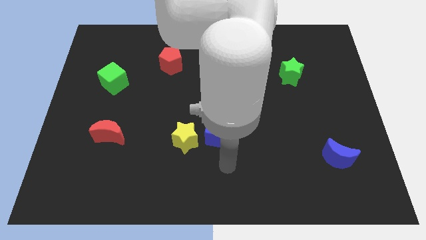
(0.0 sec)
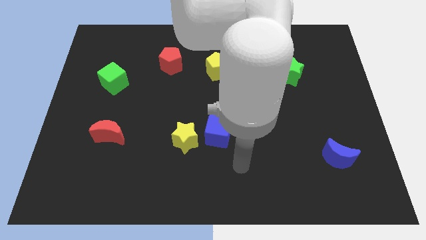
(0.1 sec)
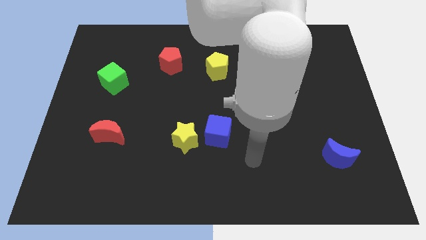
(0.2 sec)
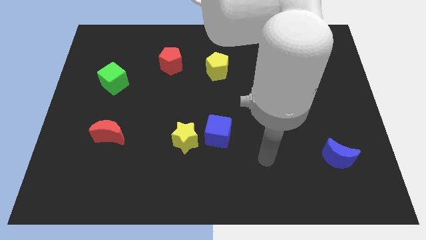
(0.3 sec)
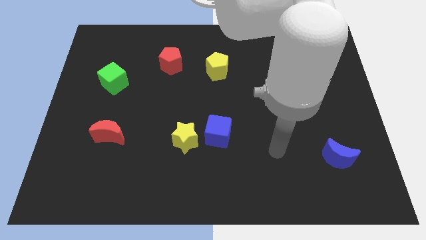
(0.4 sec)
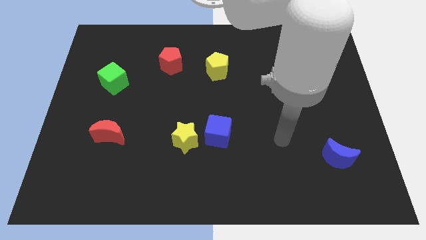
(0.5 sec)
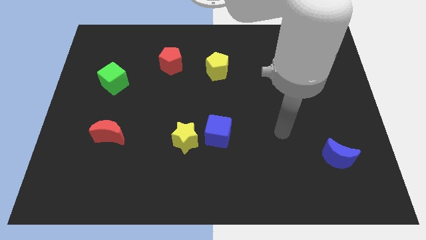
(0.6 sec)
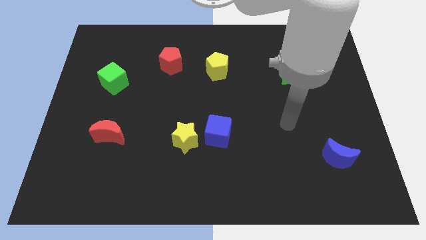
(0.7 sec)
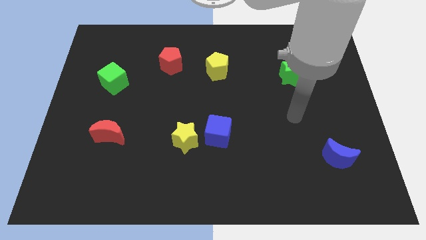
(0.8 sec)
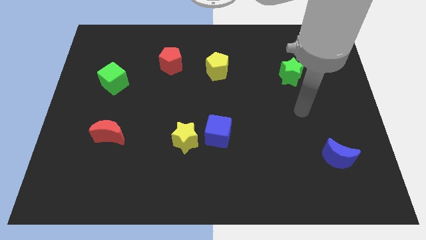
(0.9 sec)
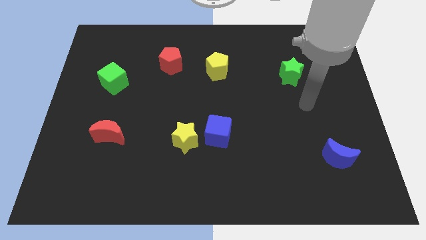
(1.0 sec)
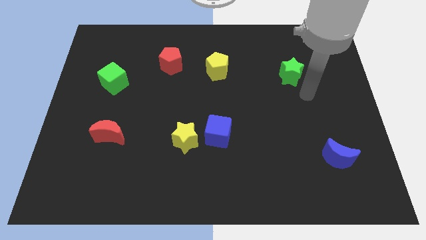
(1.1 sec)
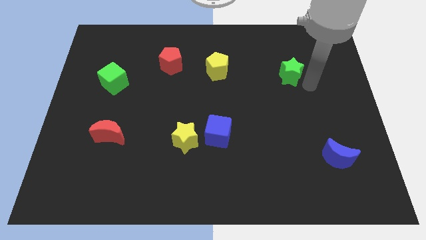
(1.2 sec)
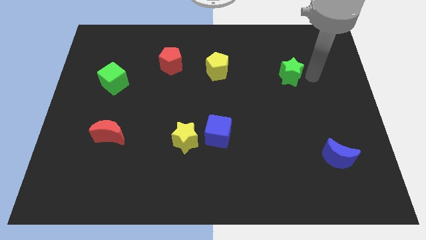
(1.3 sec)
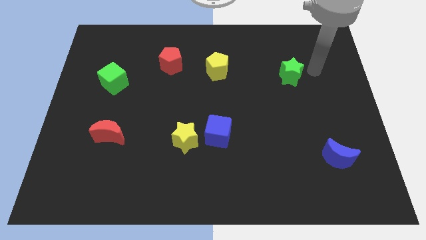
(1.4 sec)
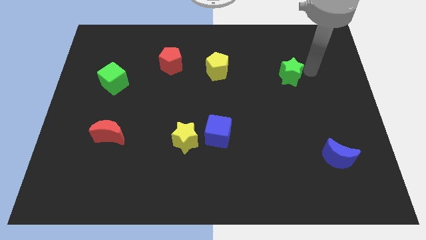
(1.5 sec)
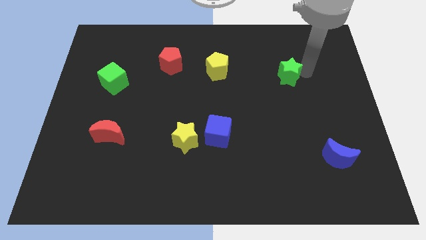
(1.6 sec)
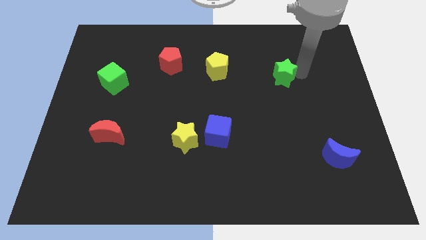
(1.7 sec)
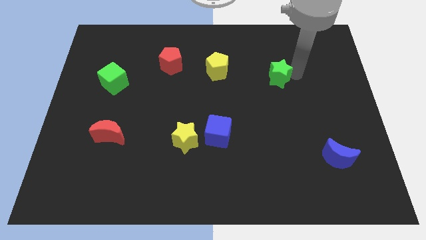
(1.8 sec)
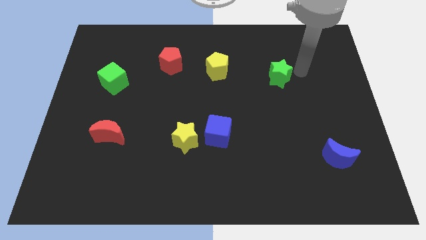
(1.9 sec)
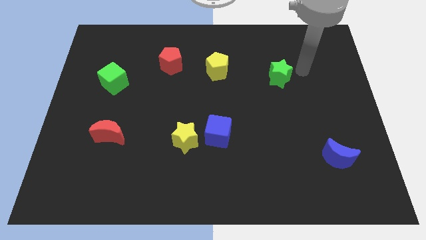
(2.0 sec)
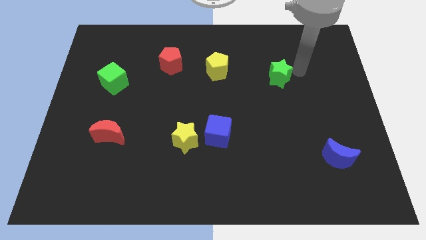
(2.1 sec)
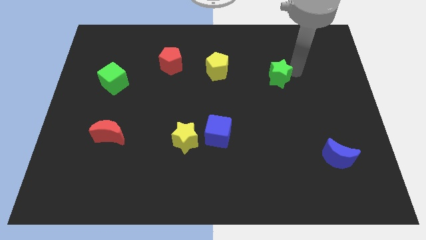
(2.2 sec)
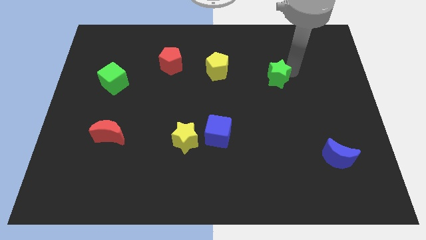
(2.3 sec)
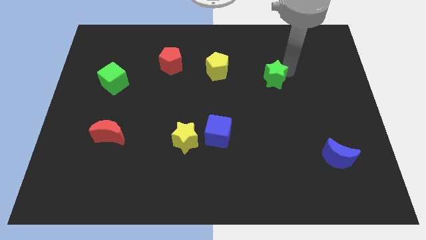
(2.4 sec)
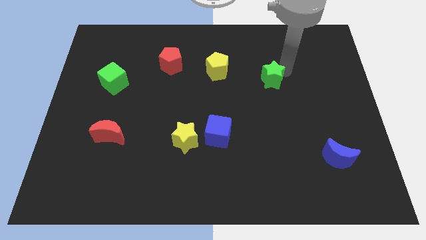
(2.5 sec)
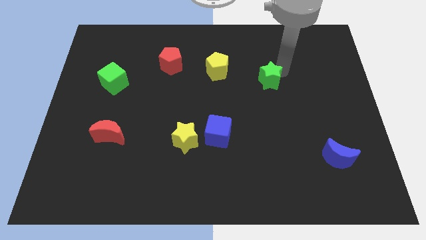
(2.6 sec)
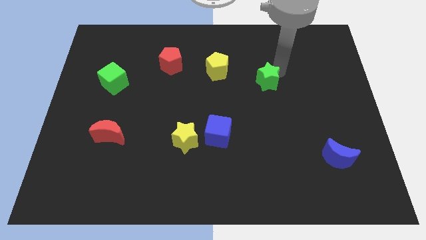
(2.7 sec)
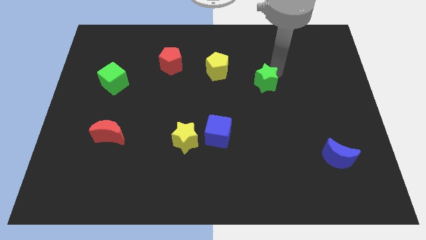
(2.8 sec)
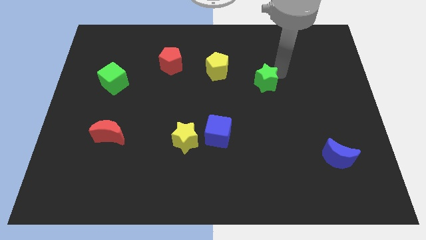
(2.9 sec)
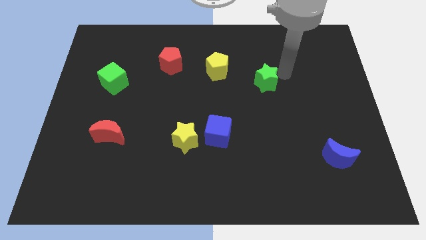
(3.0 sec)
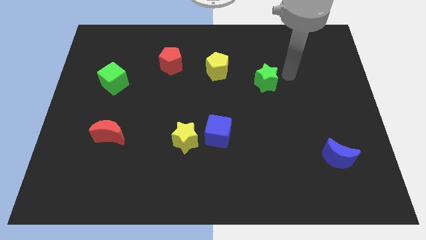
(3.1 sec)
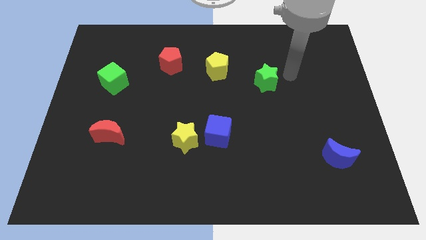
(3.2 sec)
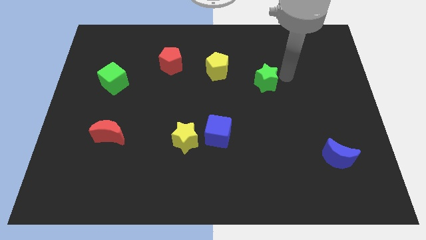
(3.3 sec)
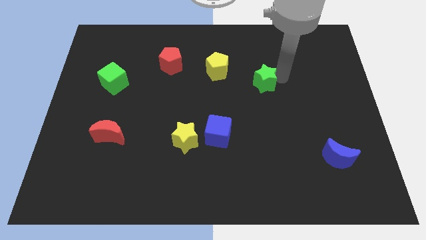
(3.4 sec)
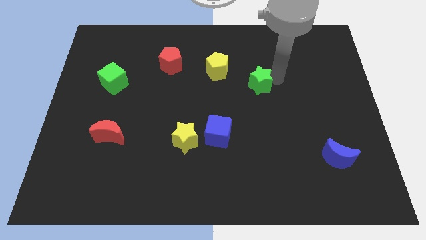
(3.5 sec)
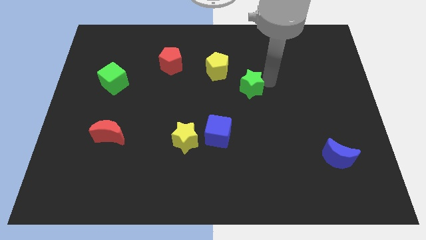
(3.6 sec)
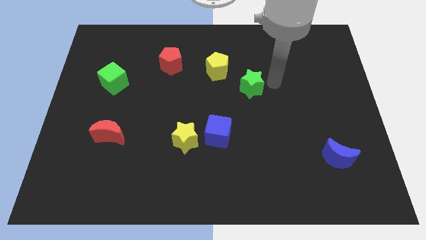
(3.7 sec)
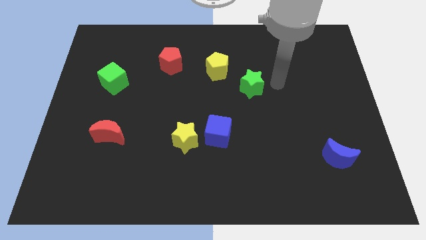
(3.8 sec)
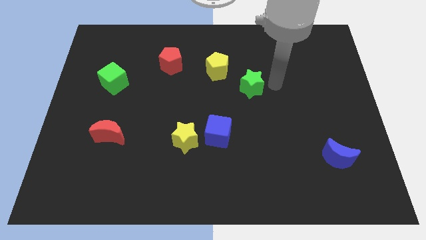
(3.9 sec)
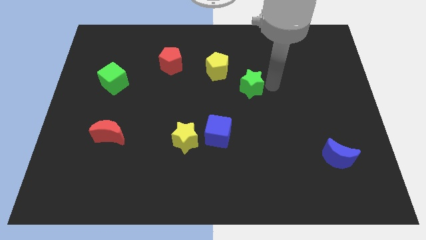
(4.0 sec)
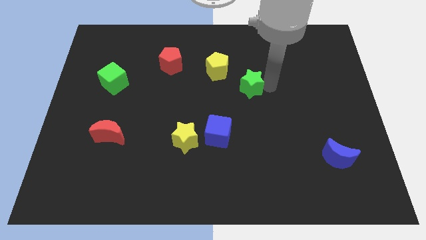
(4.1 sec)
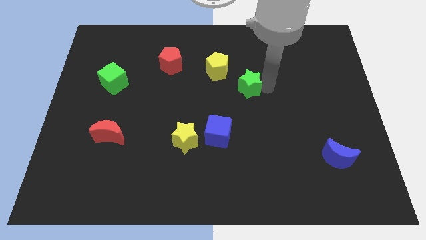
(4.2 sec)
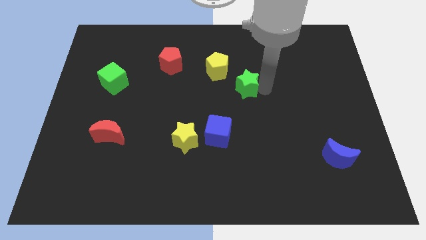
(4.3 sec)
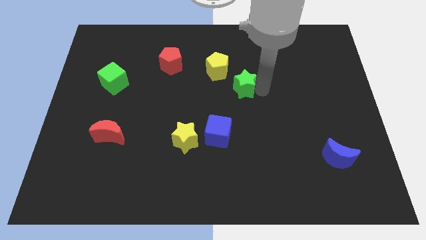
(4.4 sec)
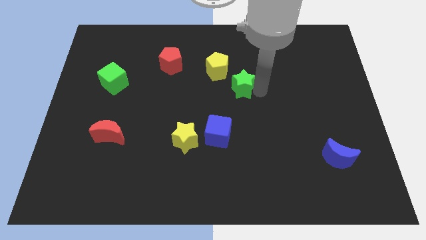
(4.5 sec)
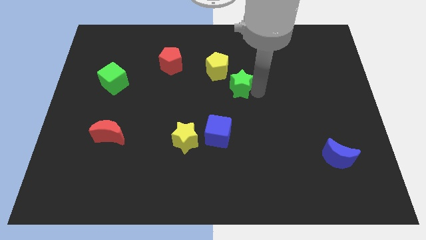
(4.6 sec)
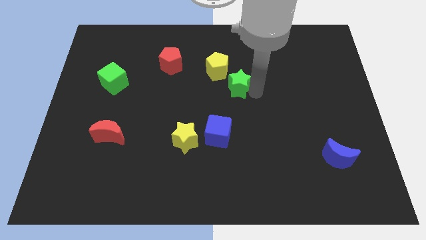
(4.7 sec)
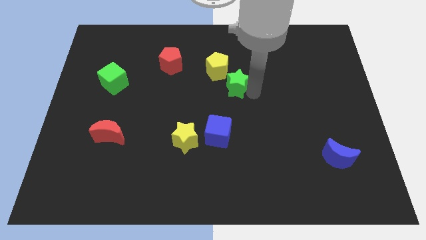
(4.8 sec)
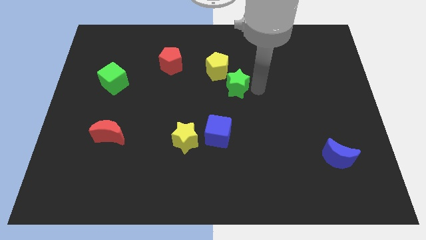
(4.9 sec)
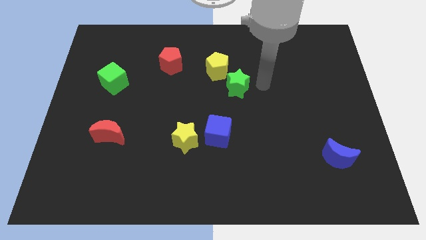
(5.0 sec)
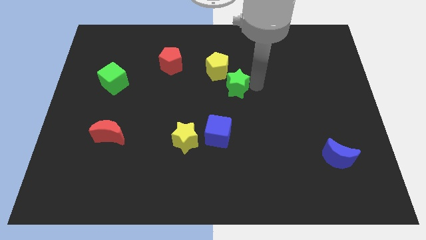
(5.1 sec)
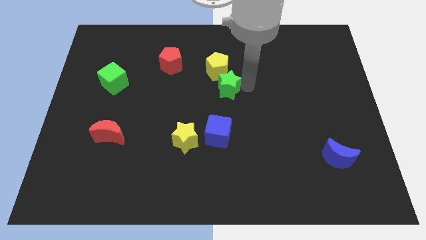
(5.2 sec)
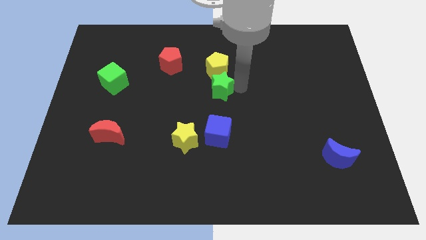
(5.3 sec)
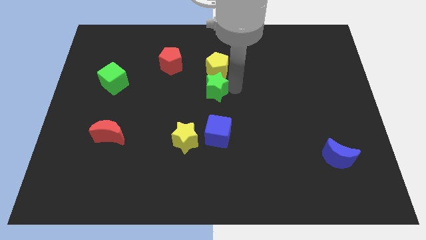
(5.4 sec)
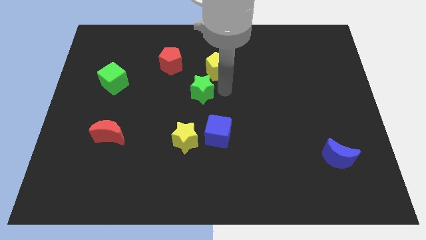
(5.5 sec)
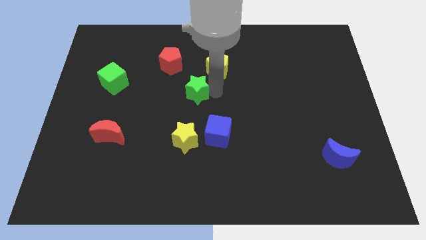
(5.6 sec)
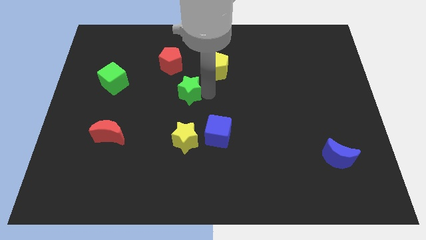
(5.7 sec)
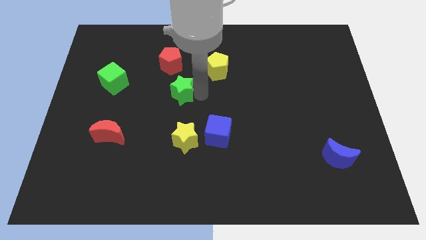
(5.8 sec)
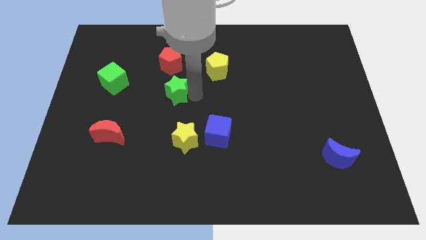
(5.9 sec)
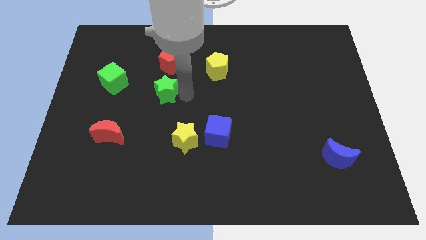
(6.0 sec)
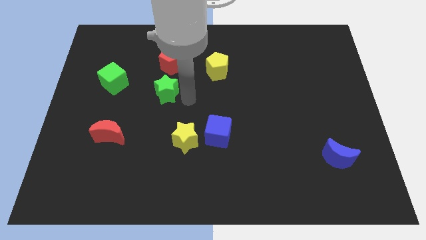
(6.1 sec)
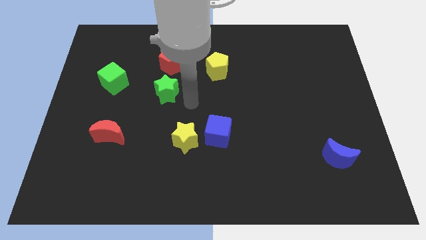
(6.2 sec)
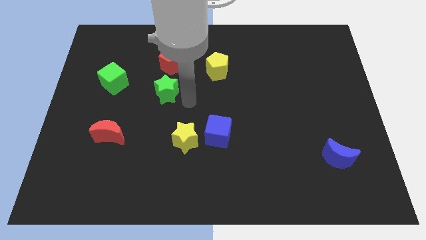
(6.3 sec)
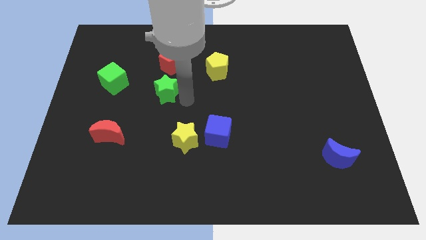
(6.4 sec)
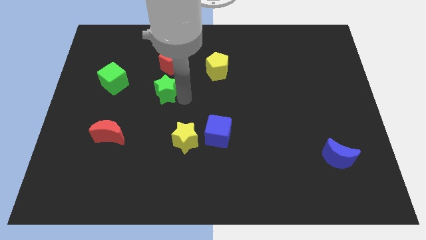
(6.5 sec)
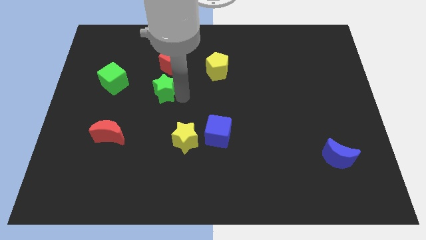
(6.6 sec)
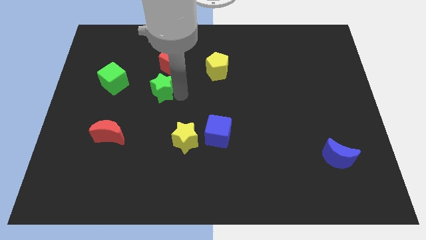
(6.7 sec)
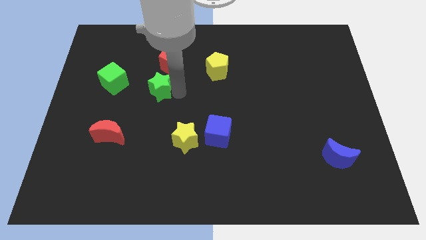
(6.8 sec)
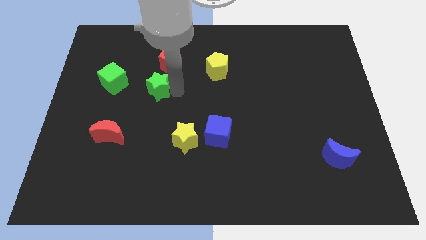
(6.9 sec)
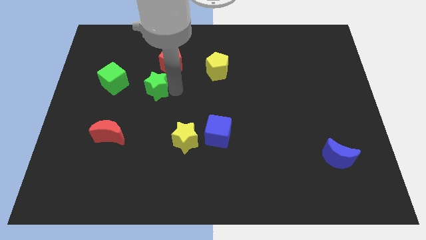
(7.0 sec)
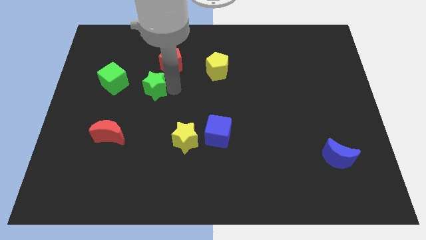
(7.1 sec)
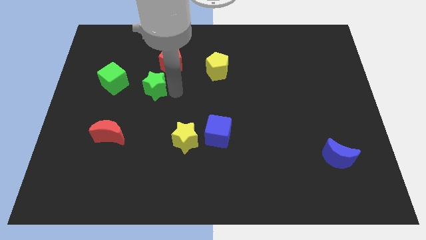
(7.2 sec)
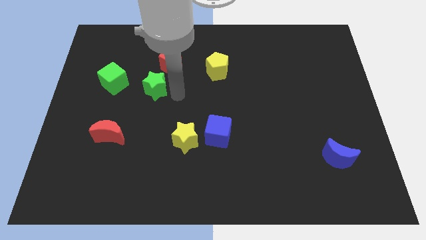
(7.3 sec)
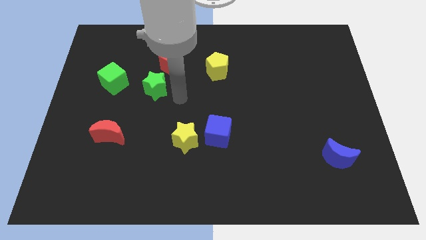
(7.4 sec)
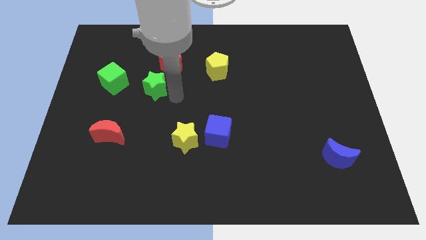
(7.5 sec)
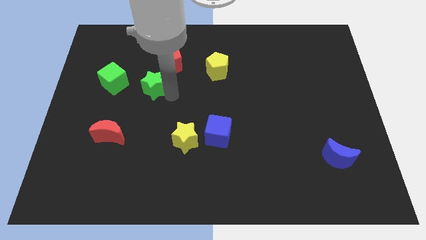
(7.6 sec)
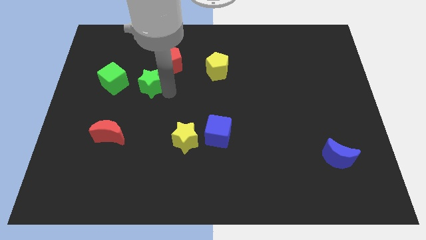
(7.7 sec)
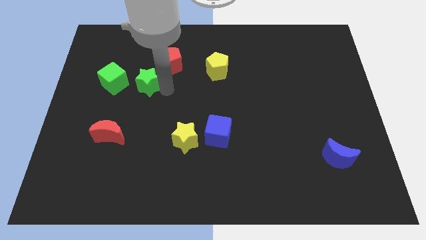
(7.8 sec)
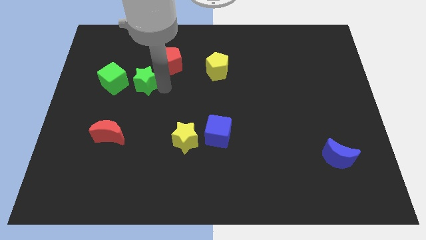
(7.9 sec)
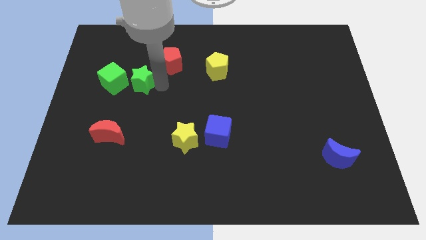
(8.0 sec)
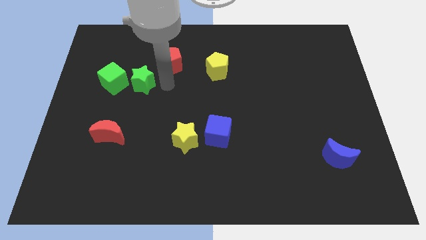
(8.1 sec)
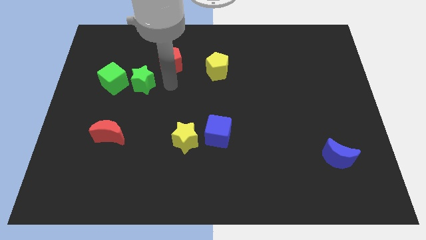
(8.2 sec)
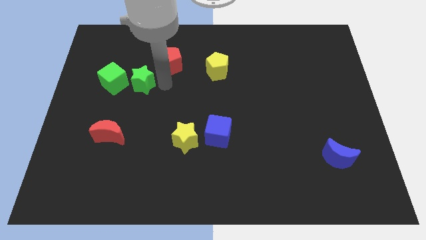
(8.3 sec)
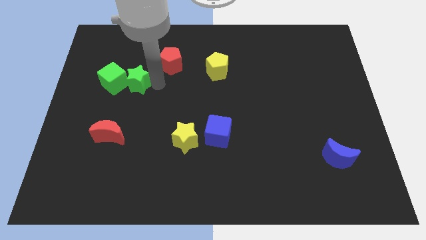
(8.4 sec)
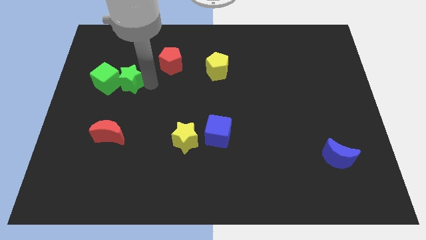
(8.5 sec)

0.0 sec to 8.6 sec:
move the green star next to the green cube
